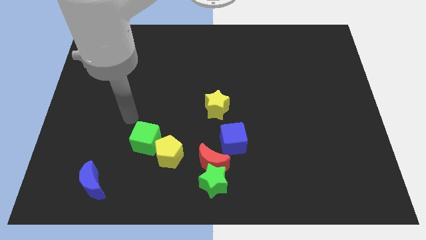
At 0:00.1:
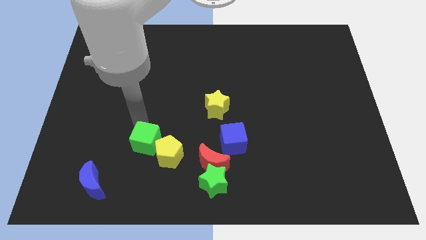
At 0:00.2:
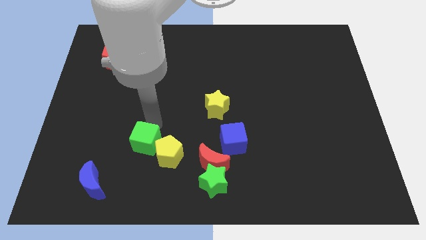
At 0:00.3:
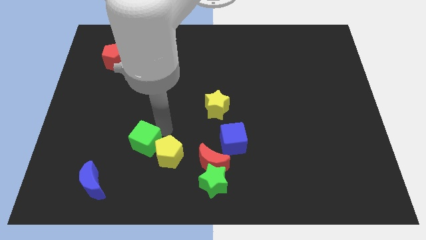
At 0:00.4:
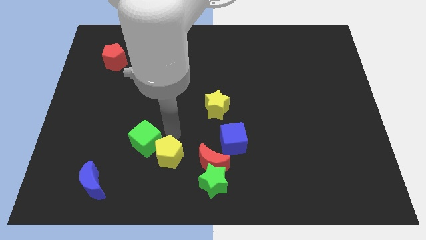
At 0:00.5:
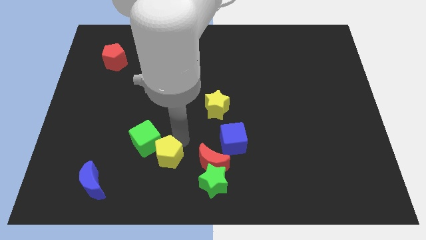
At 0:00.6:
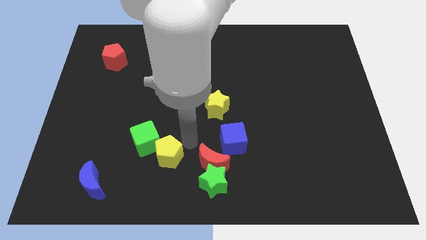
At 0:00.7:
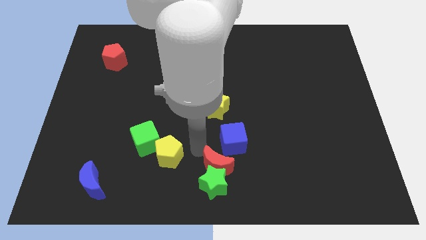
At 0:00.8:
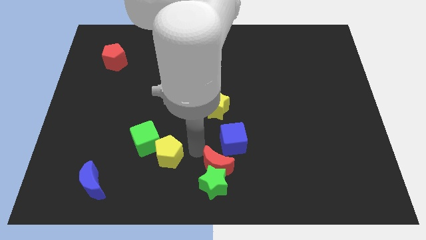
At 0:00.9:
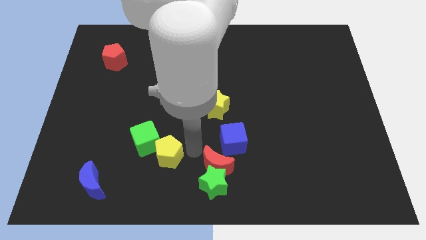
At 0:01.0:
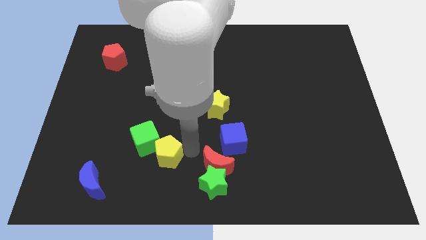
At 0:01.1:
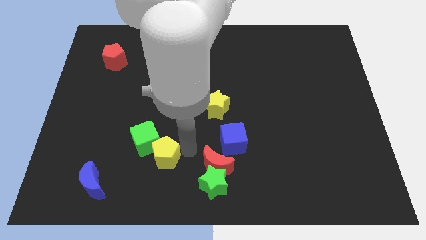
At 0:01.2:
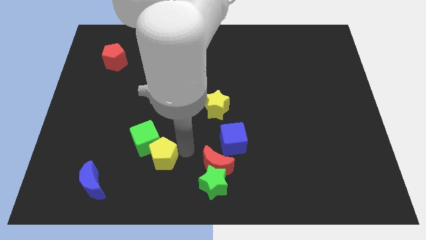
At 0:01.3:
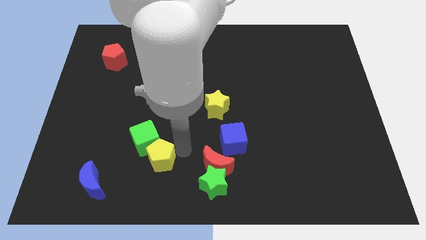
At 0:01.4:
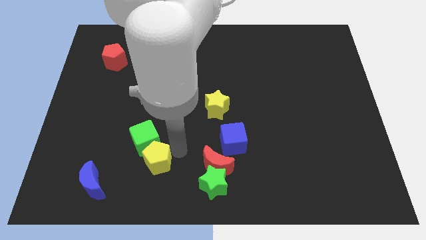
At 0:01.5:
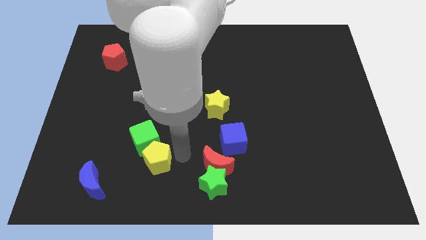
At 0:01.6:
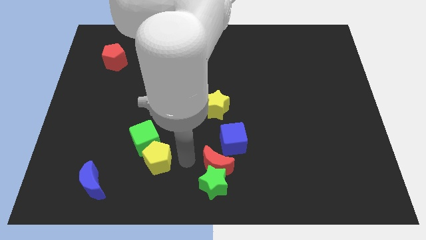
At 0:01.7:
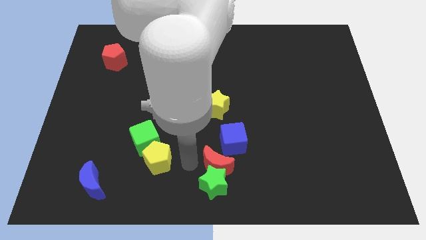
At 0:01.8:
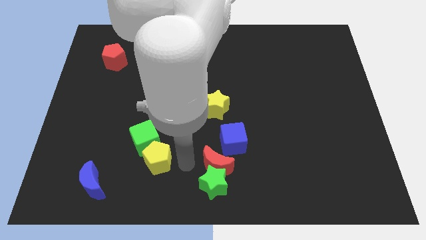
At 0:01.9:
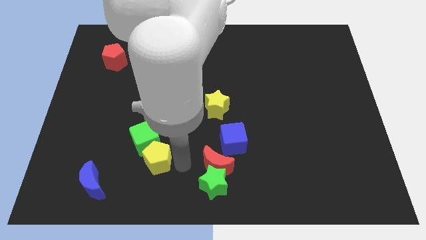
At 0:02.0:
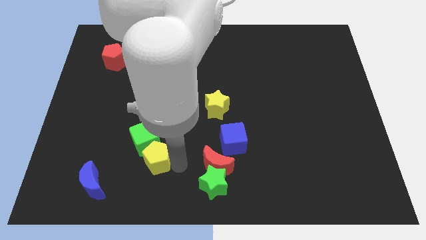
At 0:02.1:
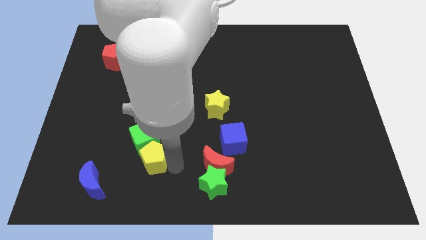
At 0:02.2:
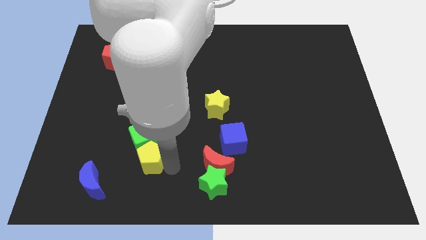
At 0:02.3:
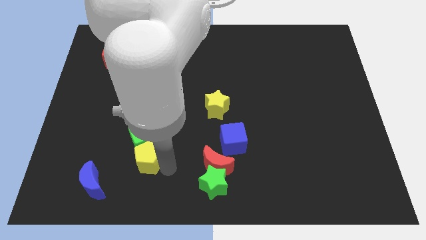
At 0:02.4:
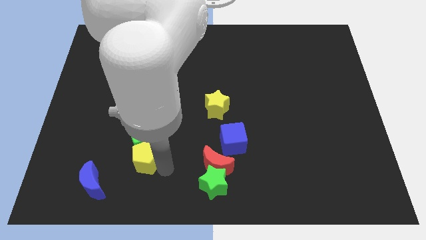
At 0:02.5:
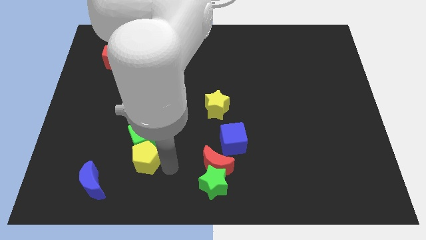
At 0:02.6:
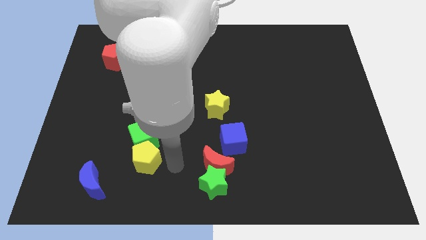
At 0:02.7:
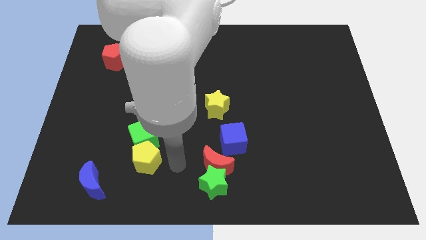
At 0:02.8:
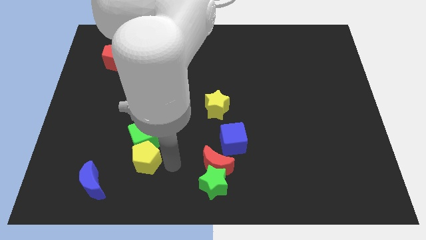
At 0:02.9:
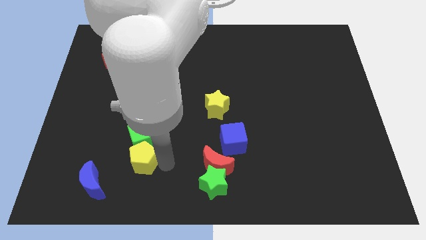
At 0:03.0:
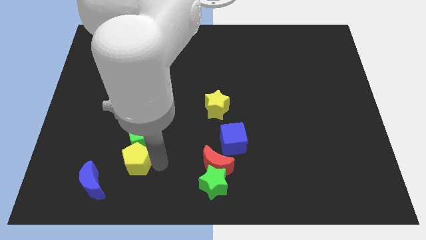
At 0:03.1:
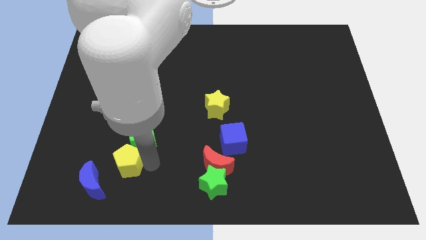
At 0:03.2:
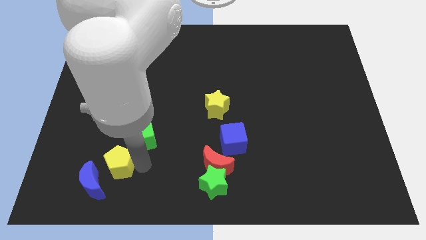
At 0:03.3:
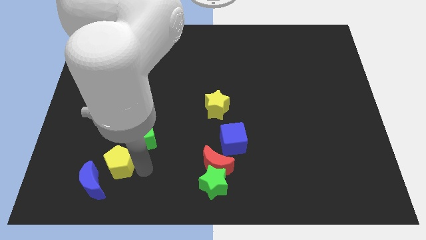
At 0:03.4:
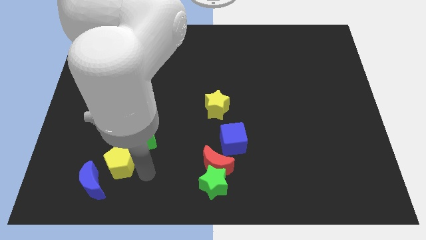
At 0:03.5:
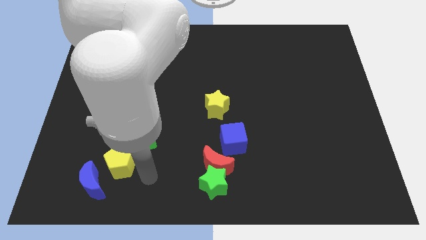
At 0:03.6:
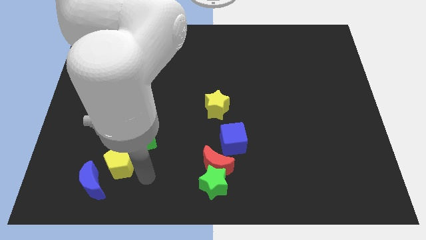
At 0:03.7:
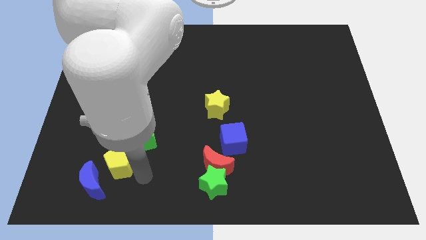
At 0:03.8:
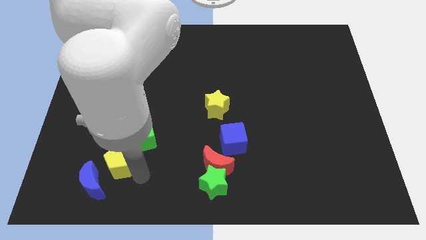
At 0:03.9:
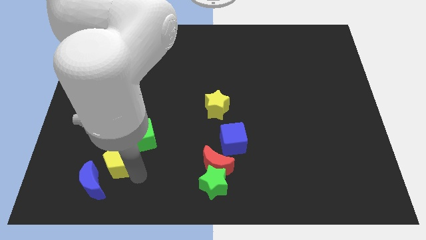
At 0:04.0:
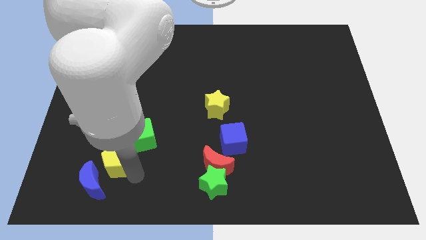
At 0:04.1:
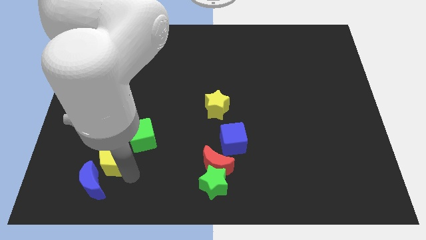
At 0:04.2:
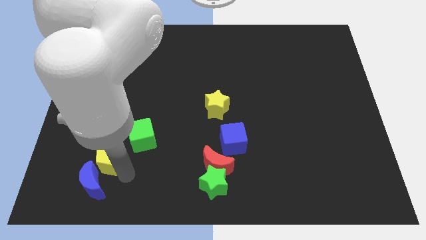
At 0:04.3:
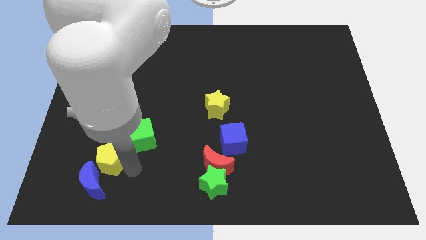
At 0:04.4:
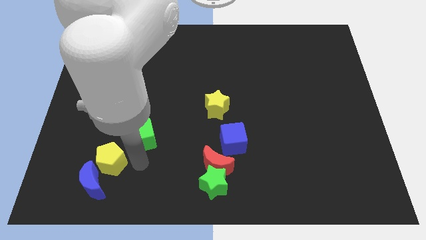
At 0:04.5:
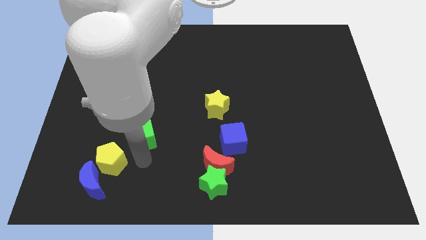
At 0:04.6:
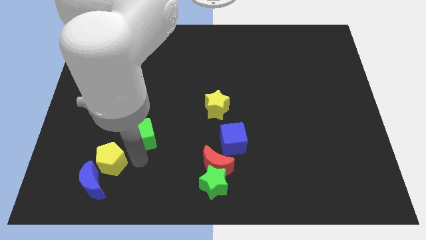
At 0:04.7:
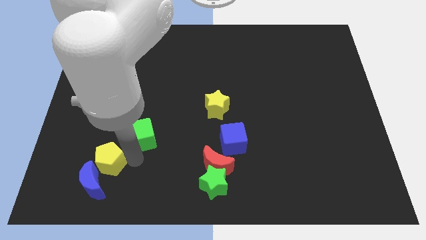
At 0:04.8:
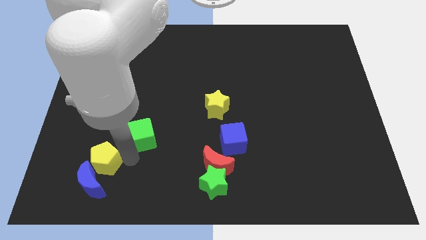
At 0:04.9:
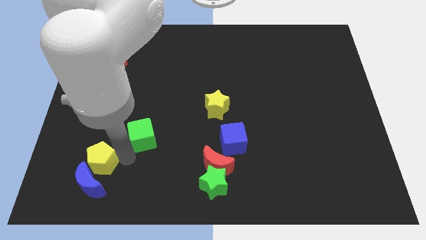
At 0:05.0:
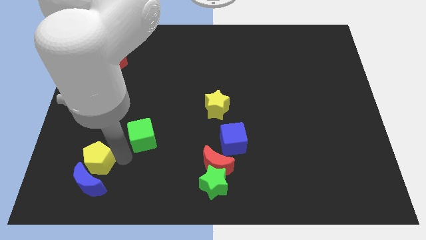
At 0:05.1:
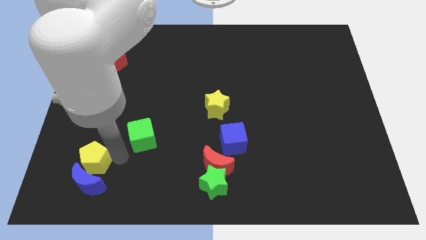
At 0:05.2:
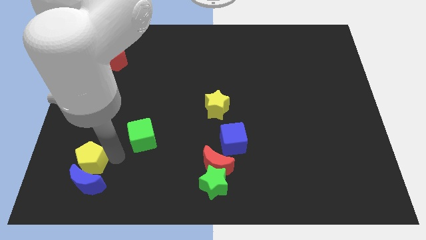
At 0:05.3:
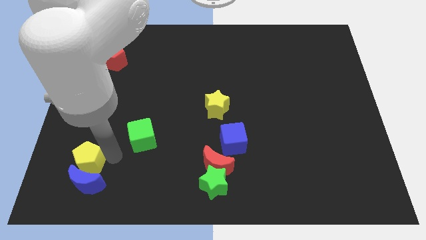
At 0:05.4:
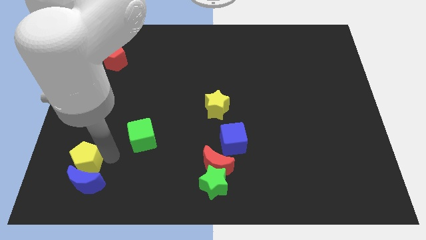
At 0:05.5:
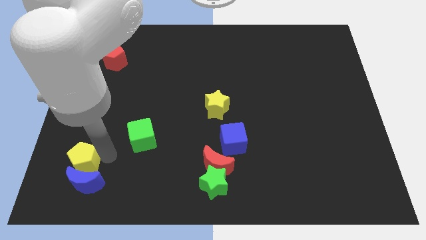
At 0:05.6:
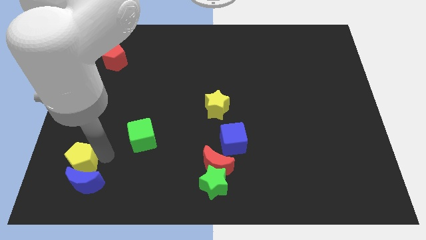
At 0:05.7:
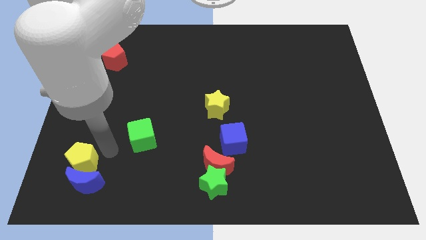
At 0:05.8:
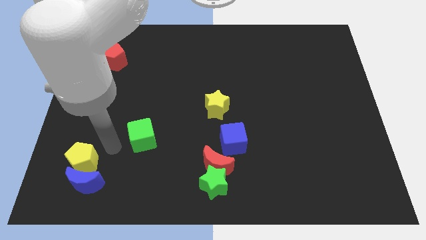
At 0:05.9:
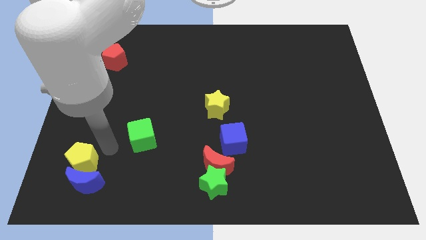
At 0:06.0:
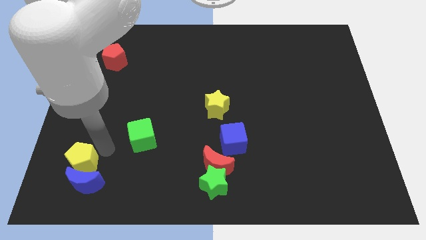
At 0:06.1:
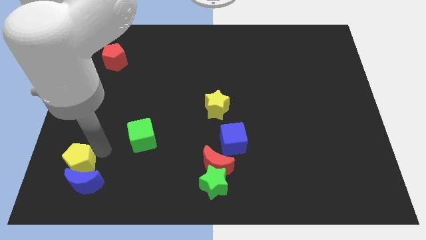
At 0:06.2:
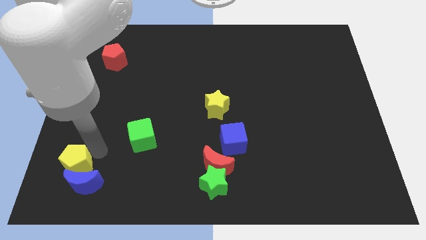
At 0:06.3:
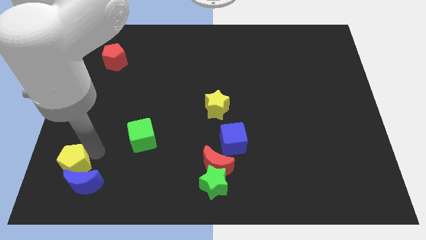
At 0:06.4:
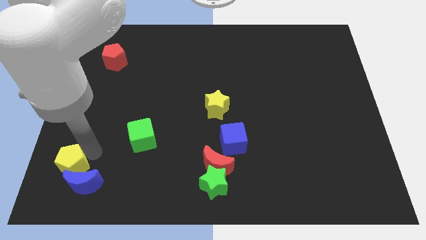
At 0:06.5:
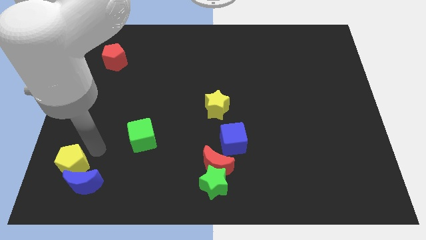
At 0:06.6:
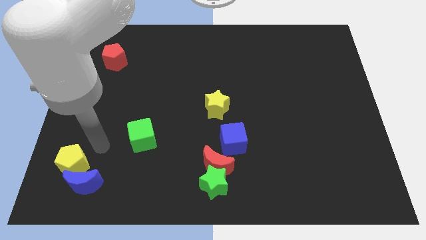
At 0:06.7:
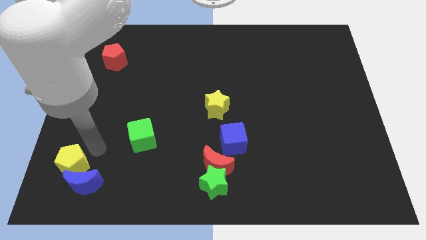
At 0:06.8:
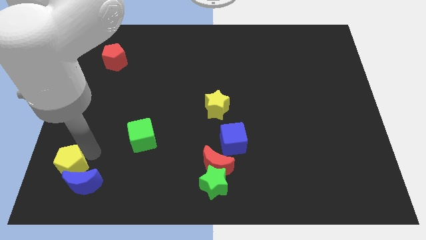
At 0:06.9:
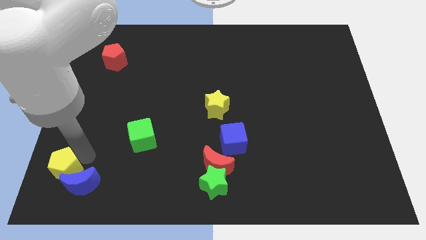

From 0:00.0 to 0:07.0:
push the yellow pentagon to the bottom left of the board
